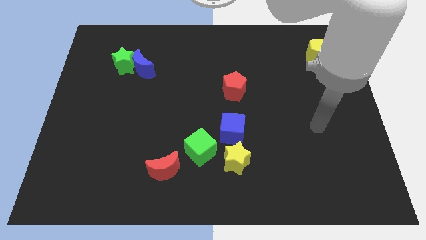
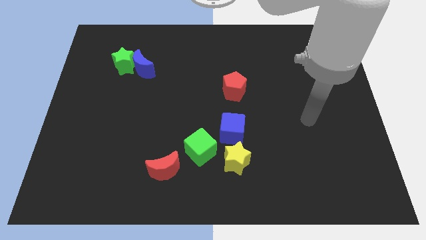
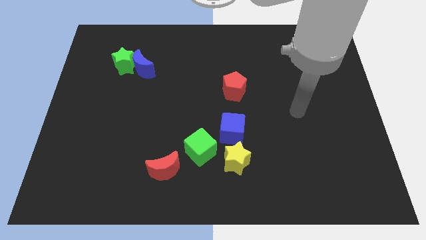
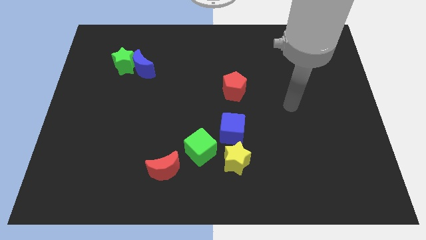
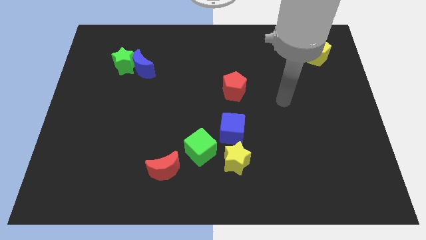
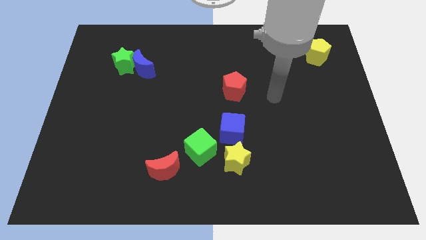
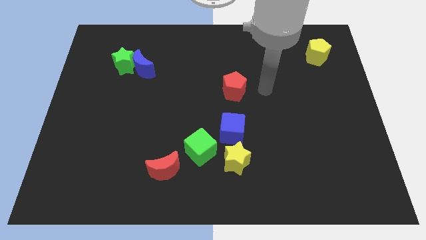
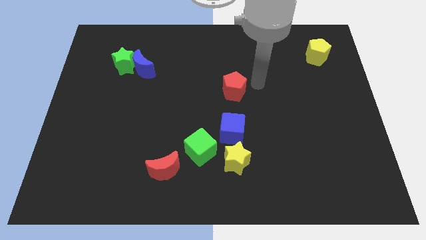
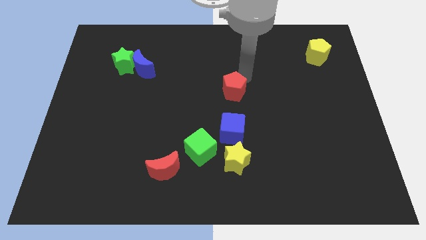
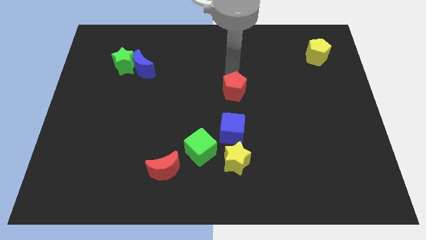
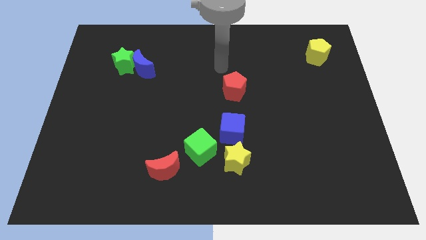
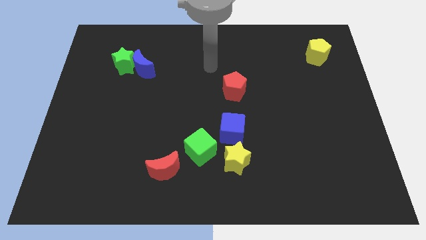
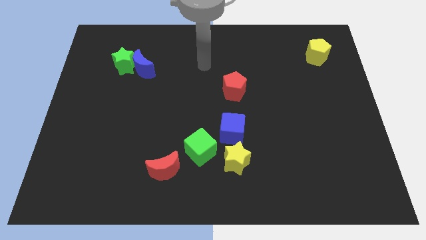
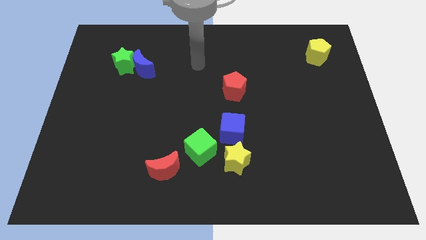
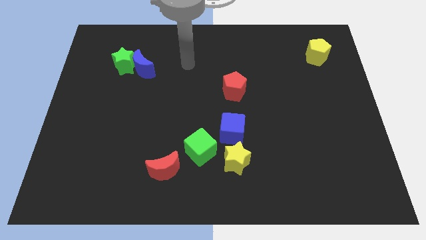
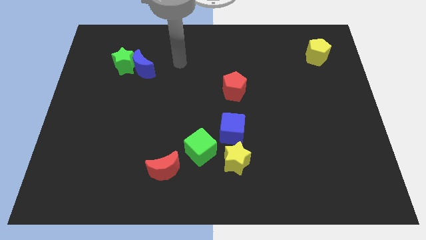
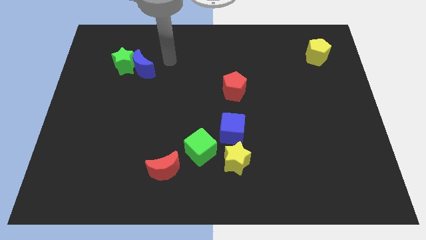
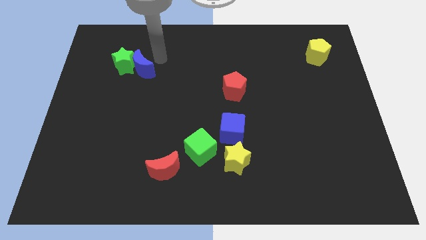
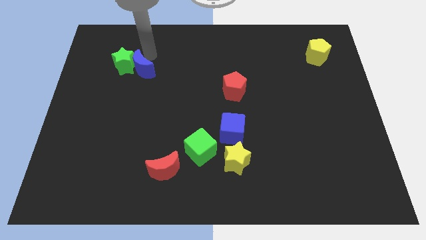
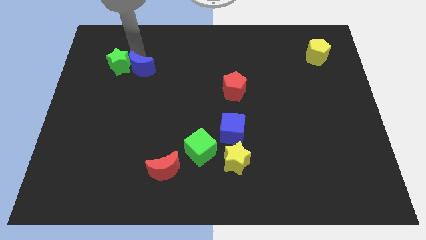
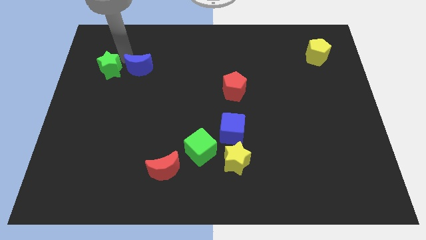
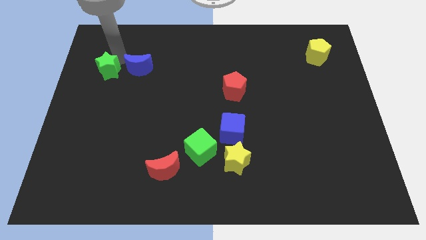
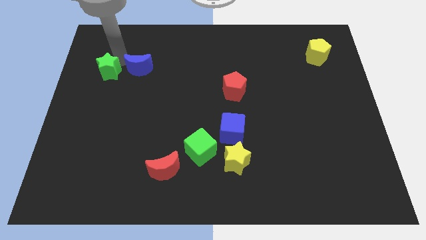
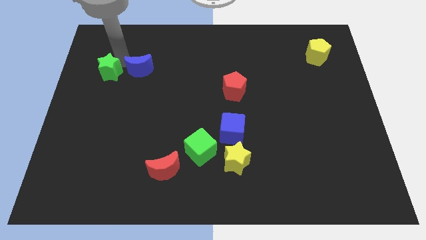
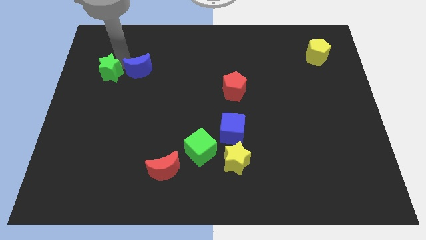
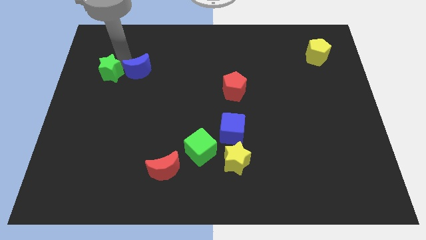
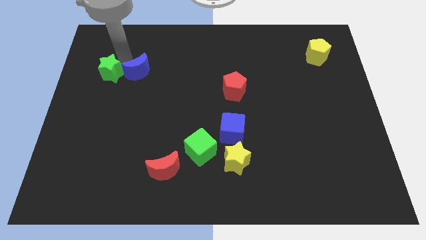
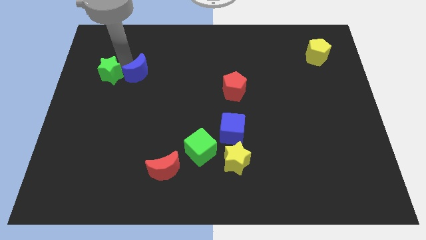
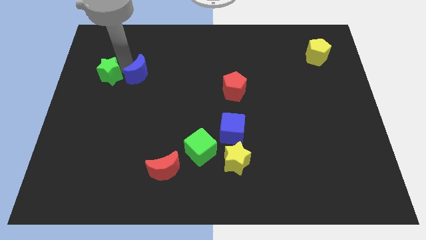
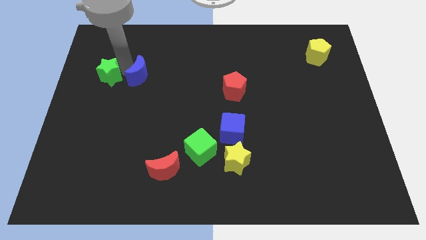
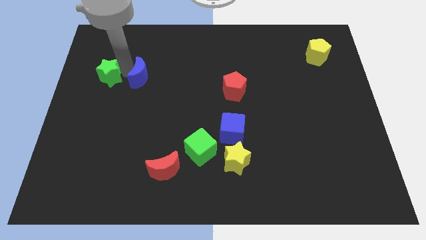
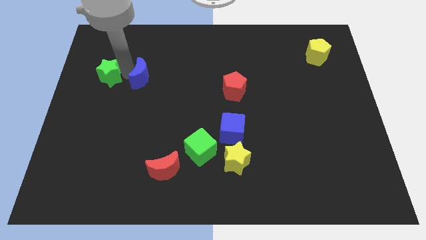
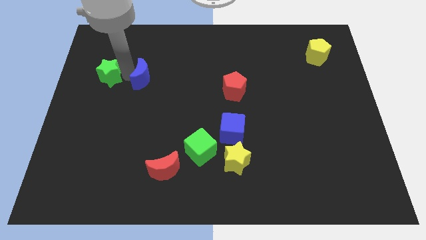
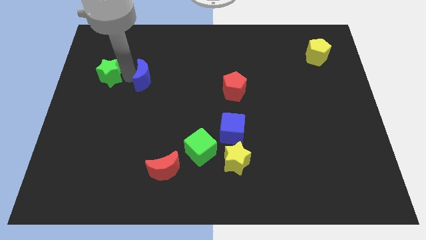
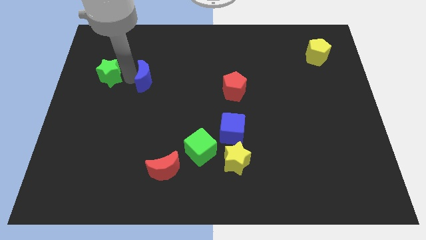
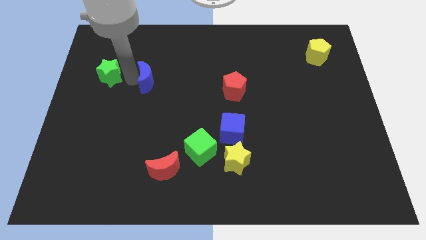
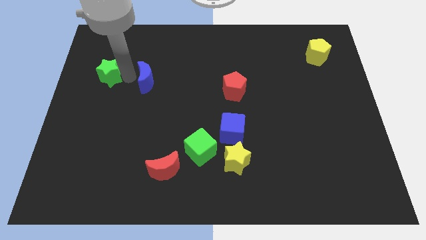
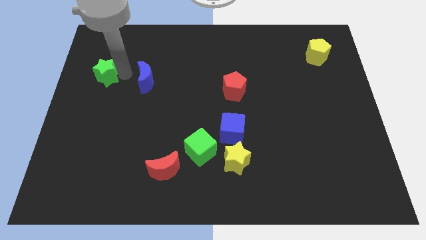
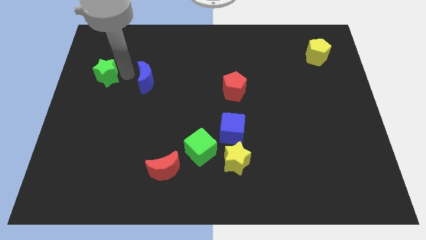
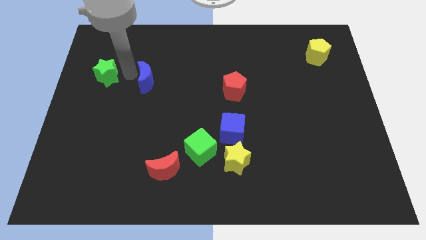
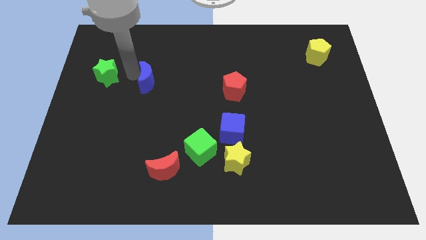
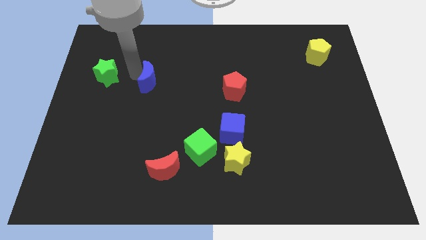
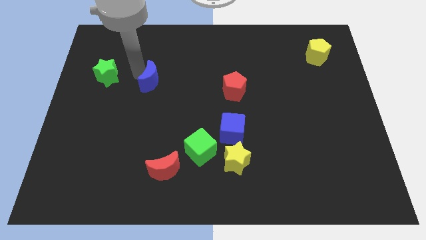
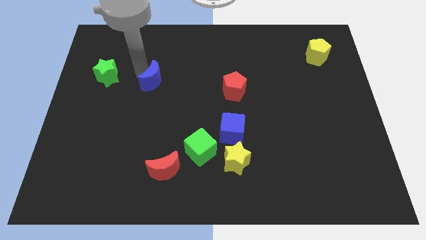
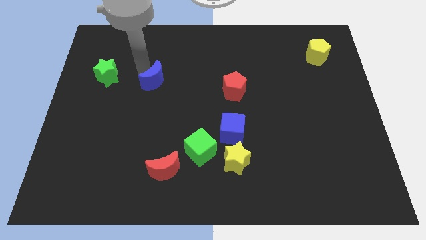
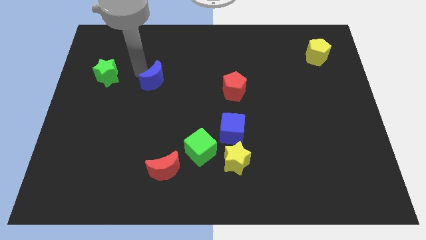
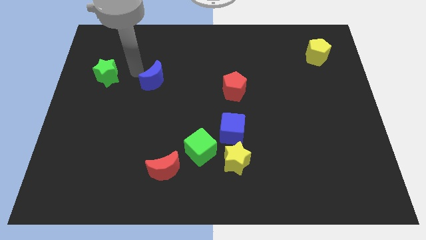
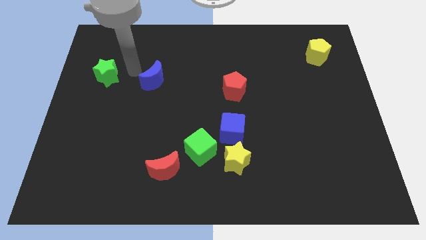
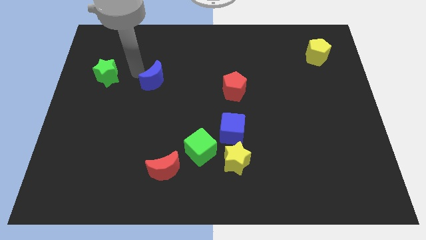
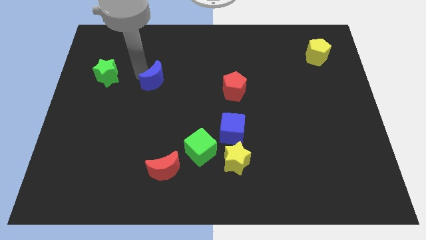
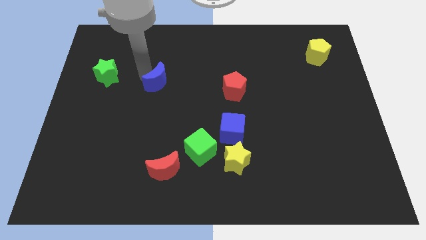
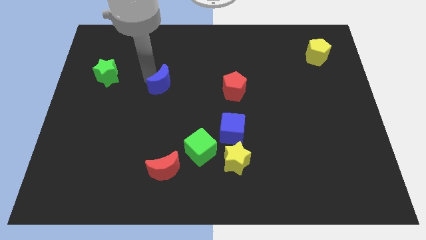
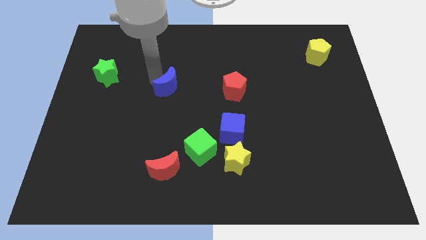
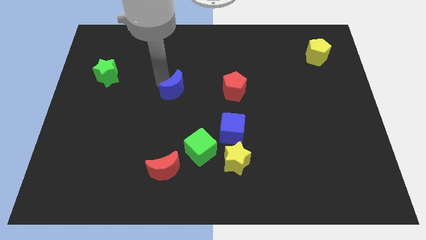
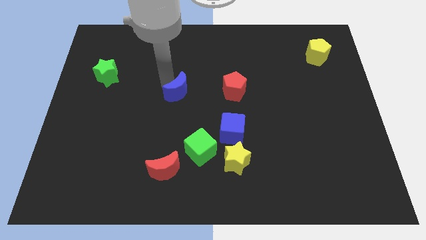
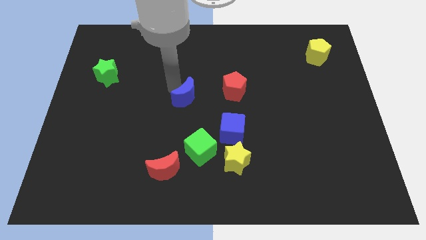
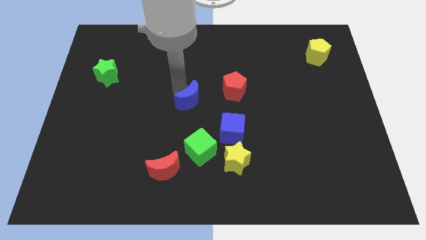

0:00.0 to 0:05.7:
slide the blue moon above the green cube

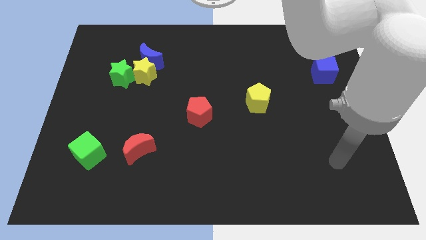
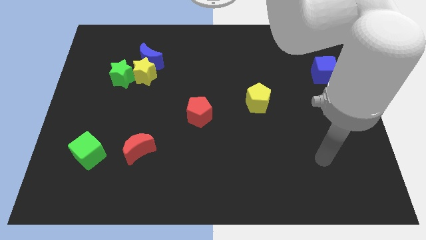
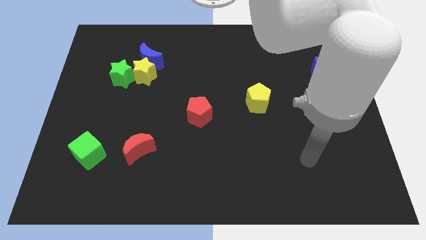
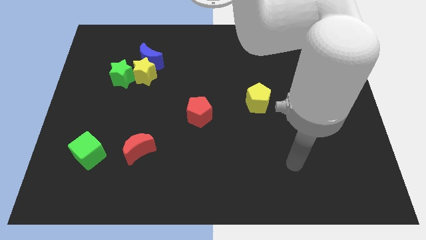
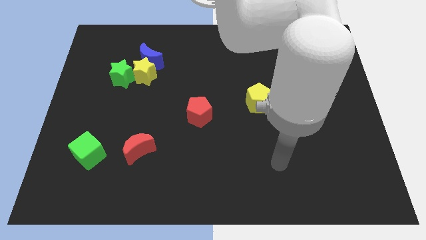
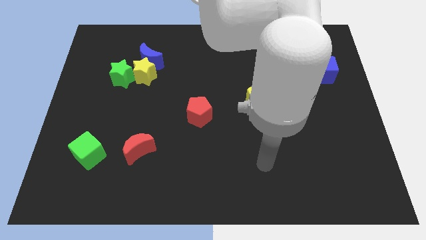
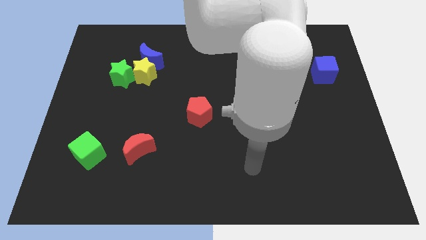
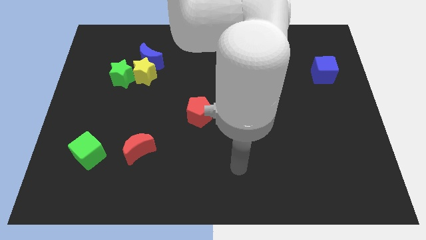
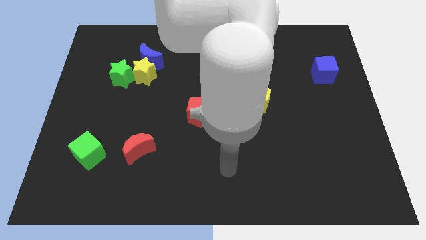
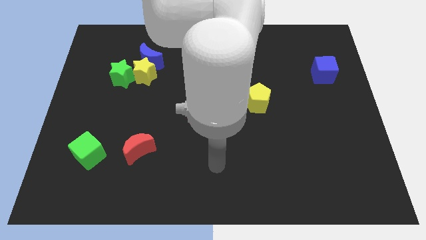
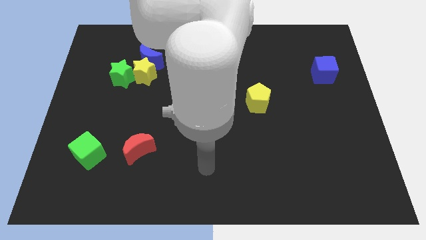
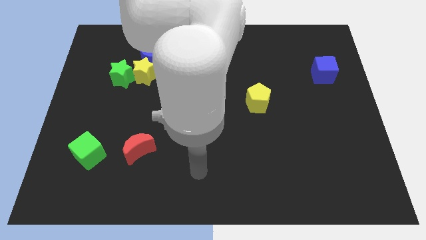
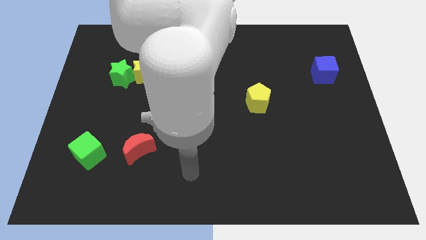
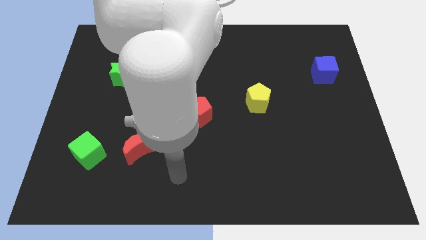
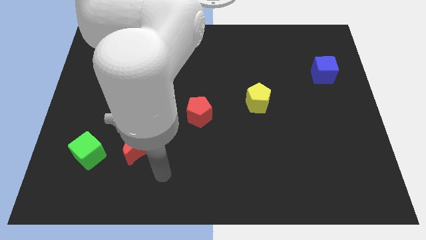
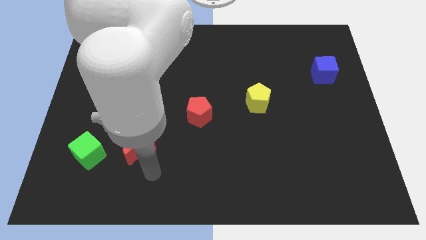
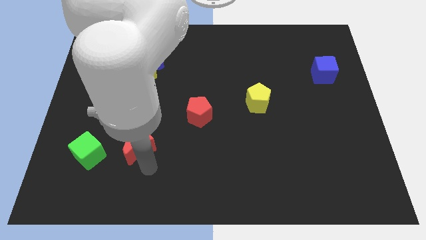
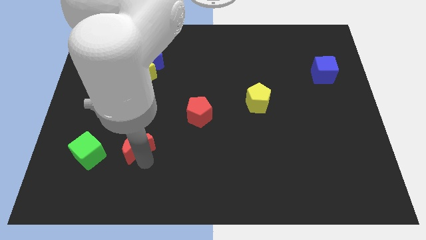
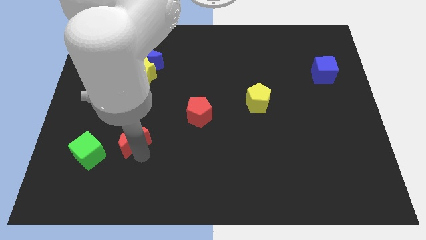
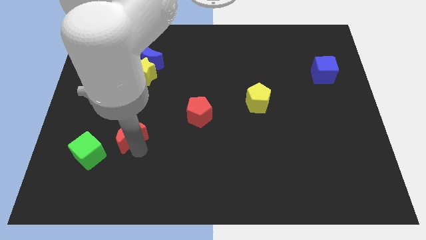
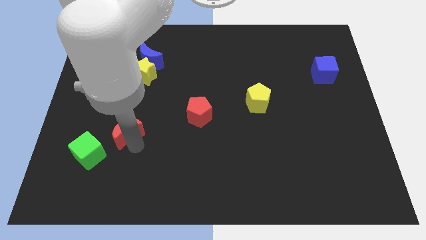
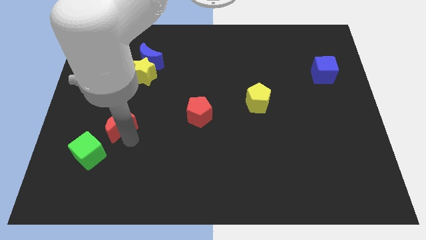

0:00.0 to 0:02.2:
move the red moon to the bottom side of the green star
